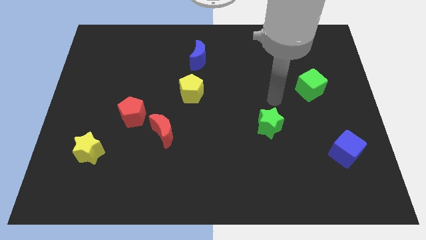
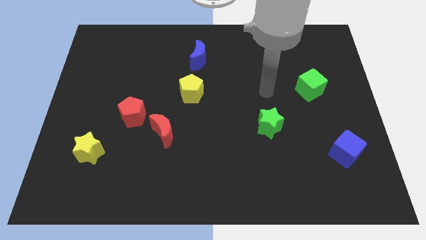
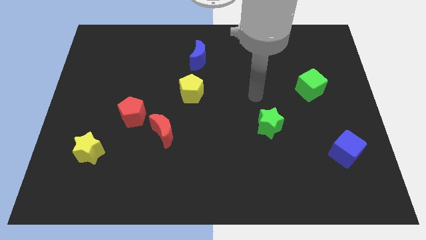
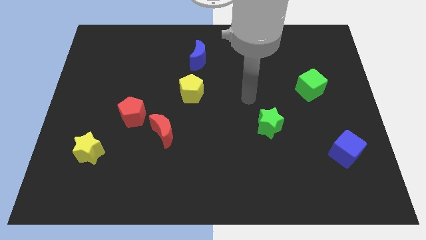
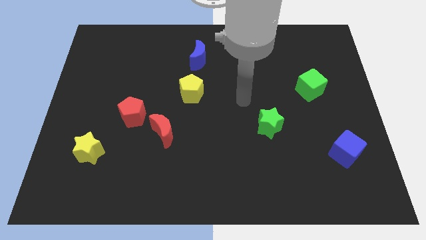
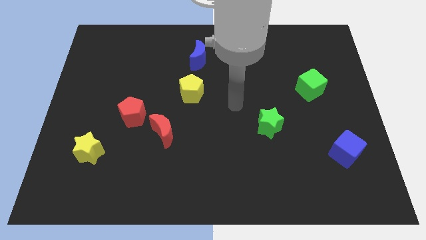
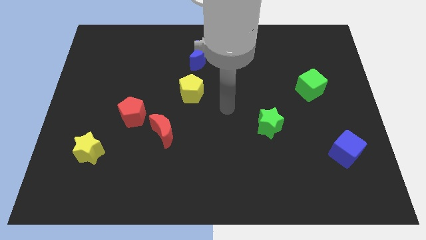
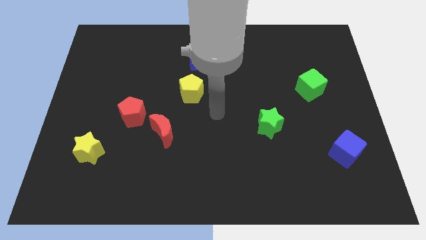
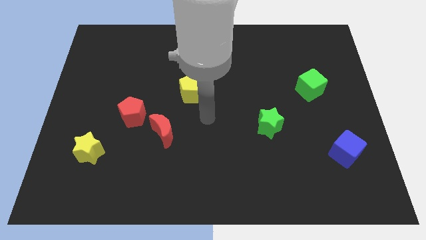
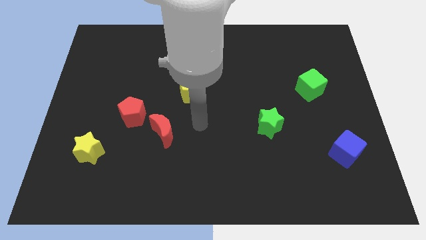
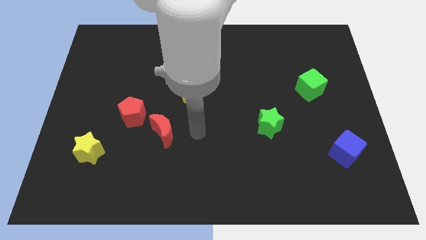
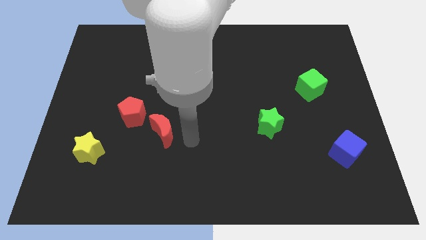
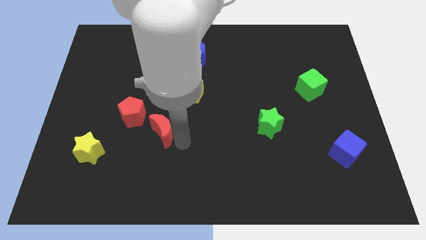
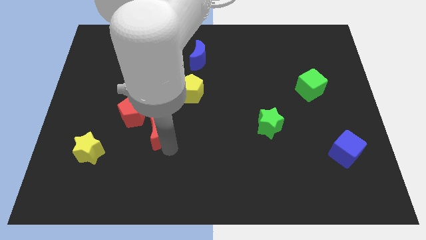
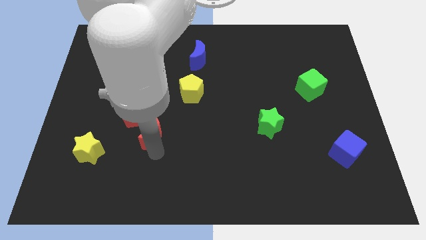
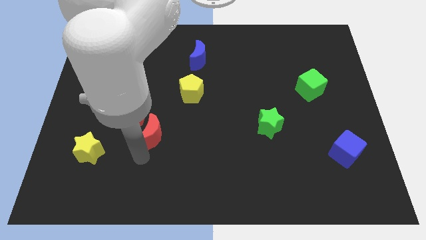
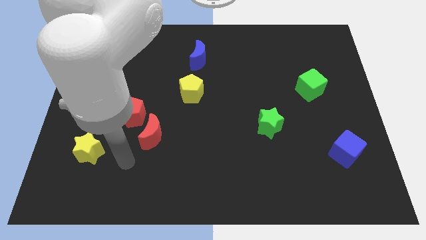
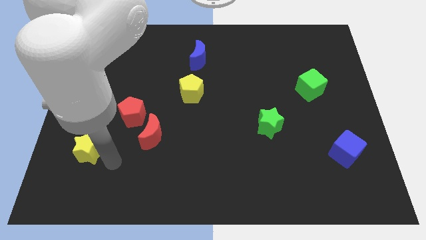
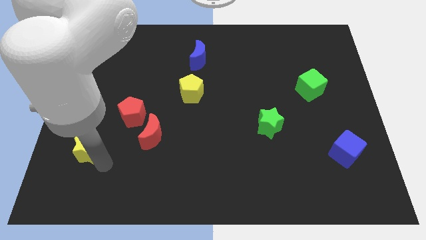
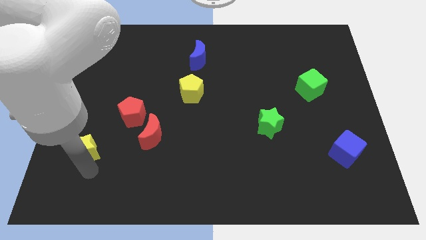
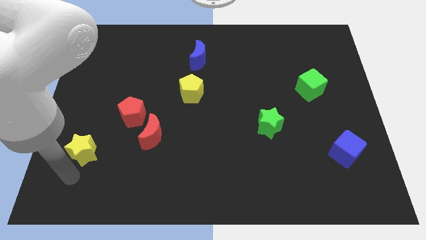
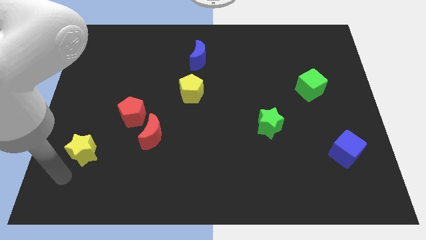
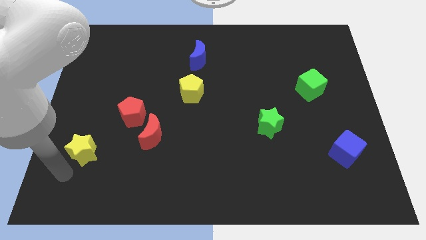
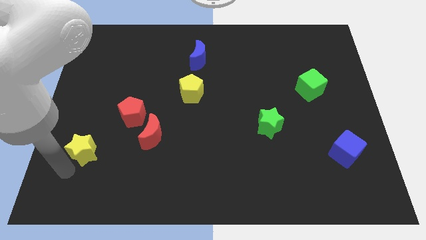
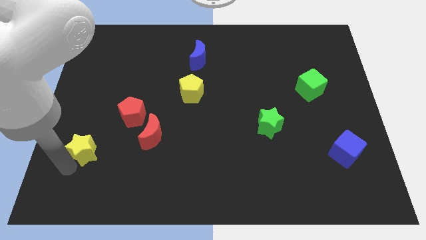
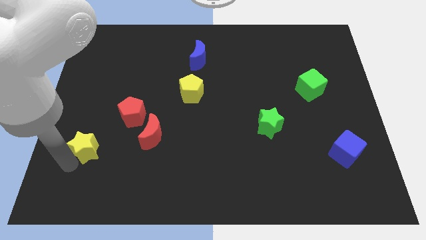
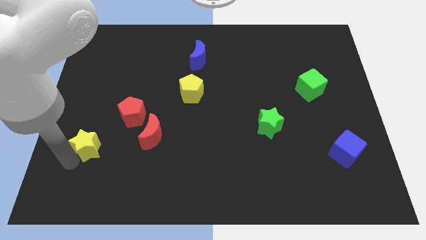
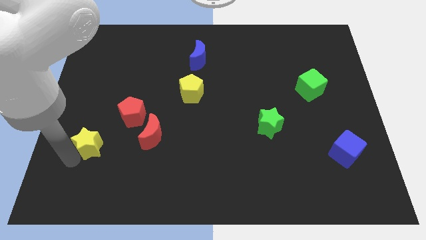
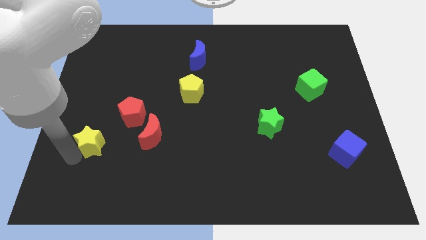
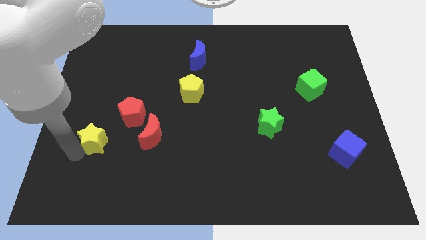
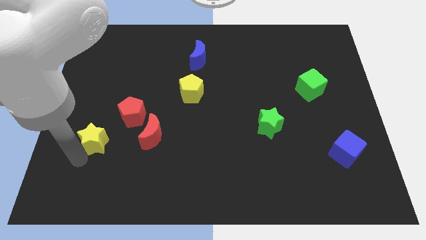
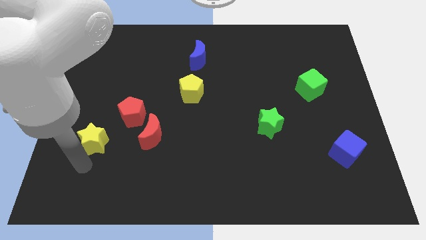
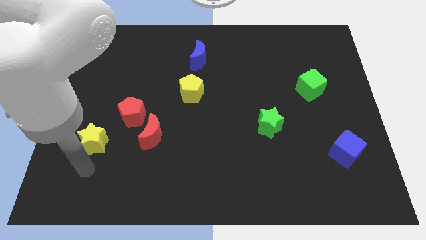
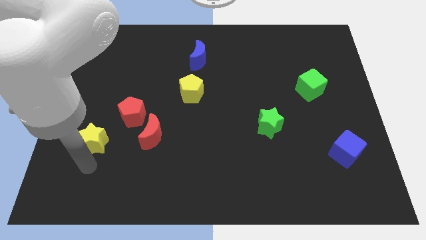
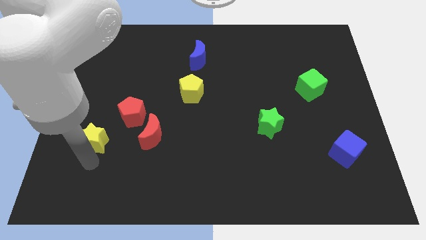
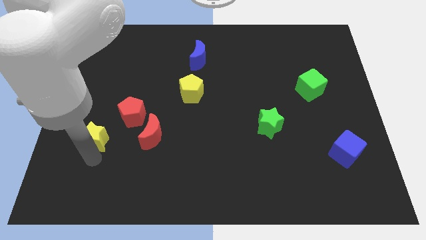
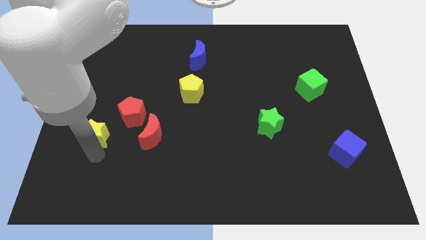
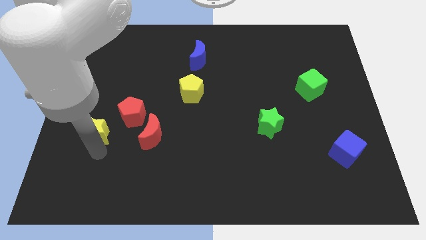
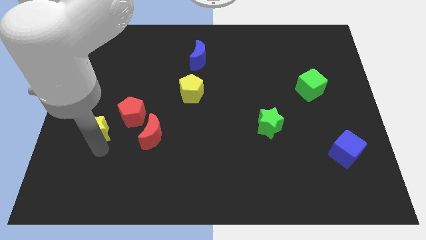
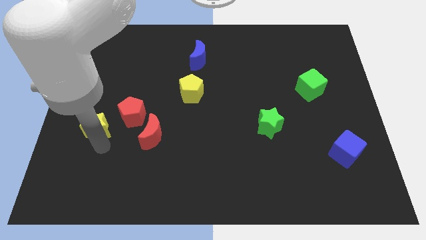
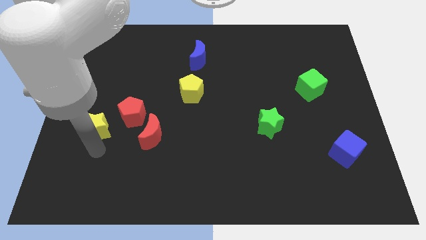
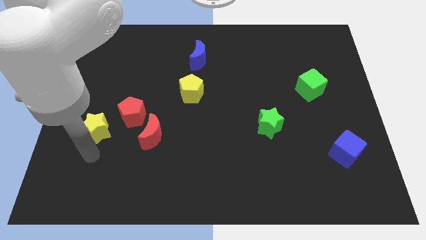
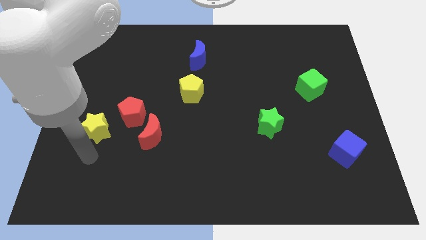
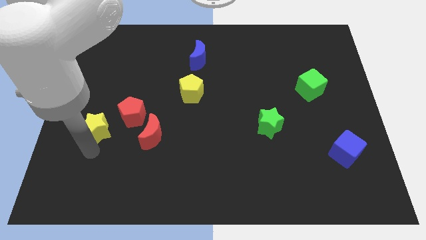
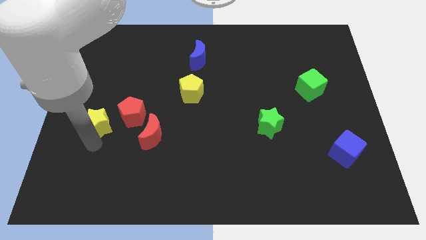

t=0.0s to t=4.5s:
move the yellow star upwards slightly

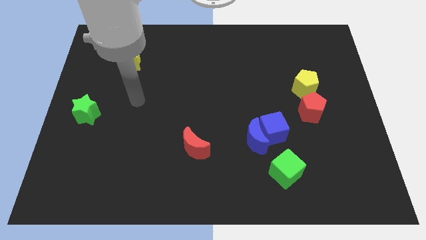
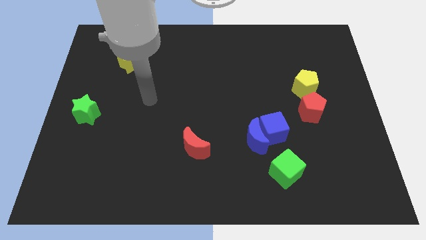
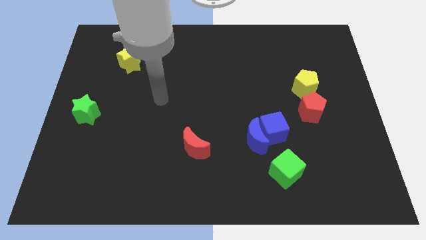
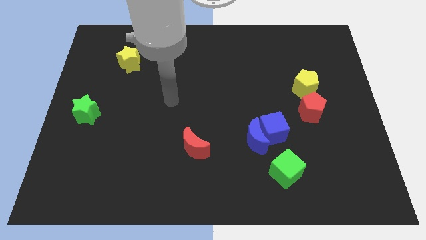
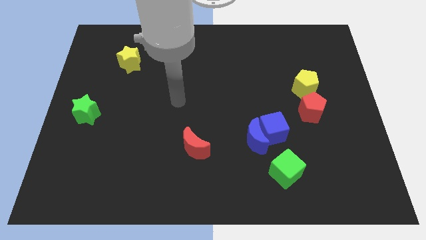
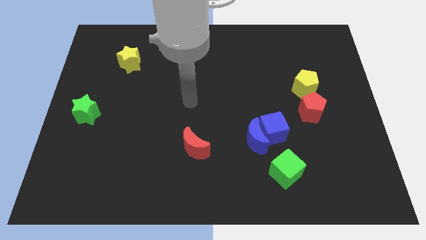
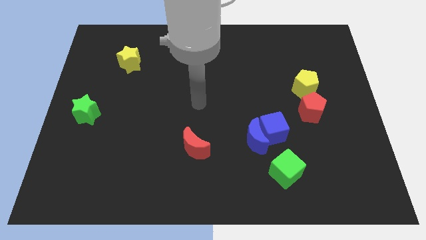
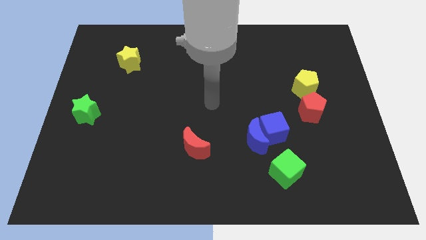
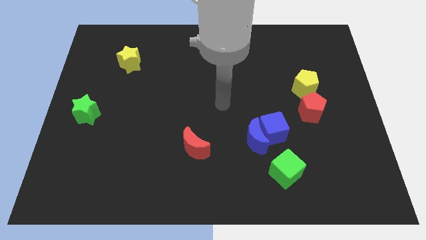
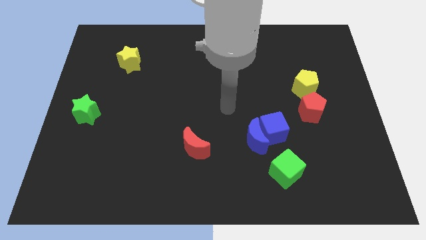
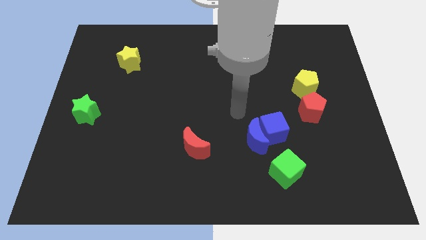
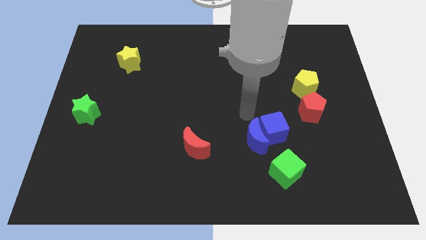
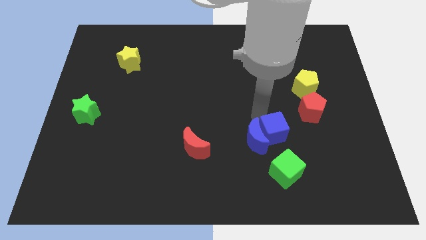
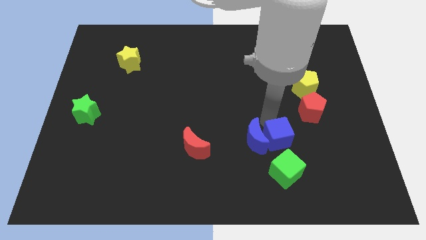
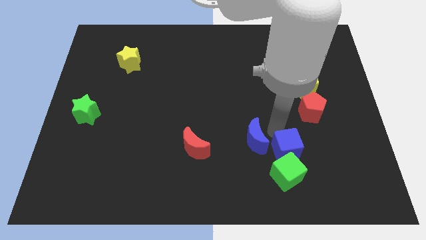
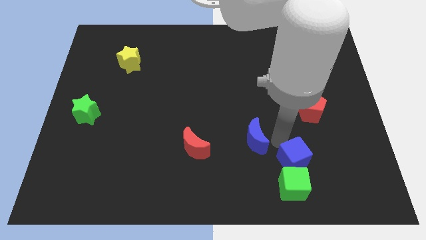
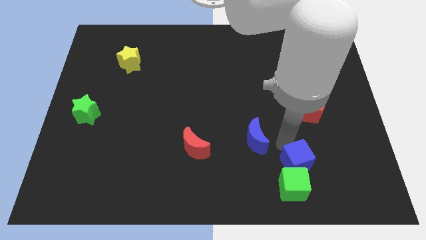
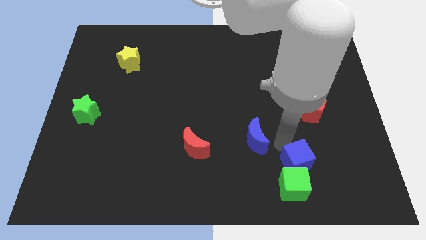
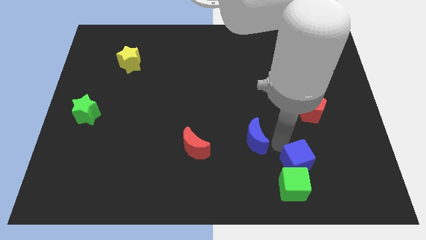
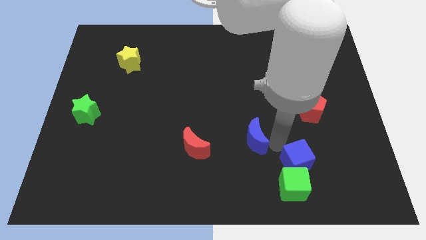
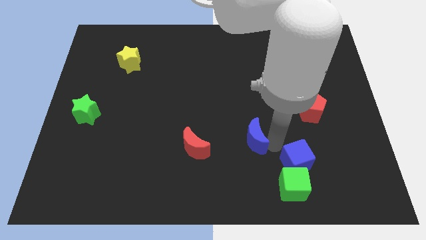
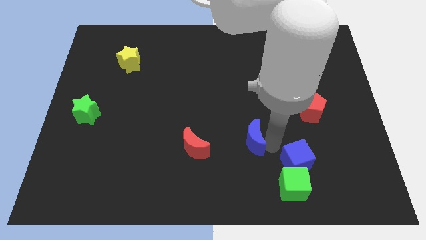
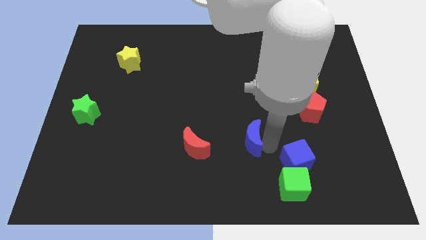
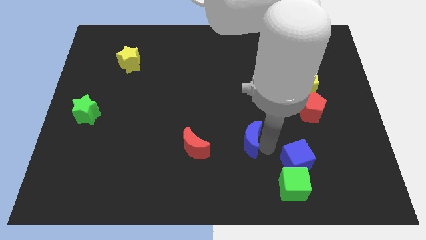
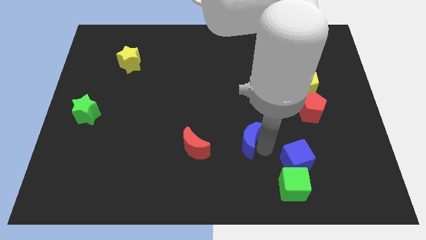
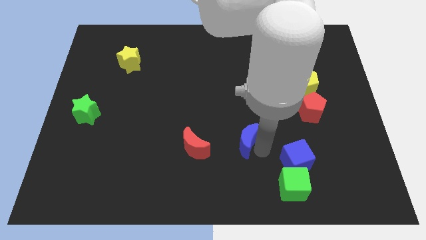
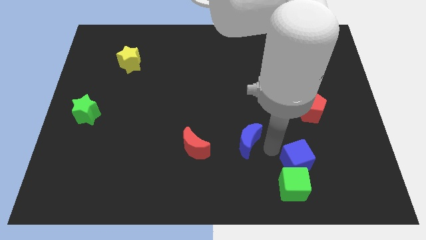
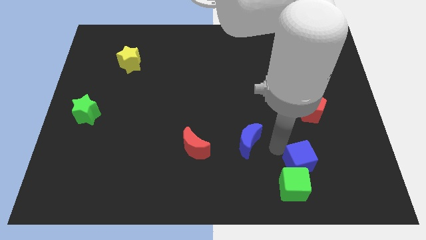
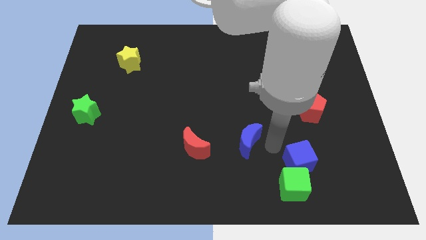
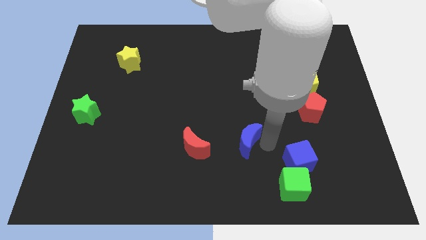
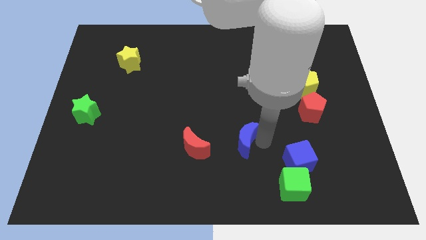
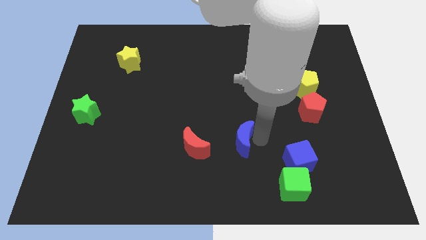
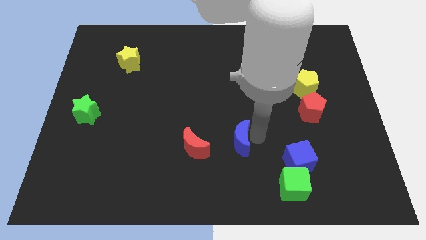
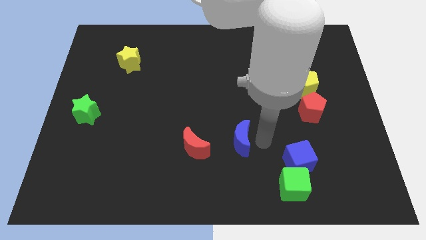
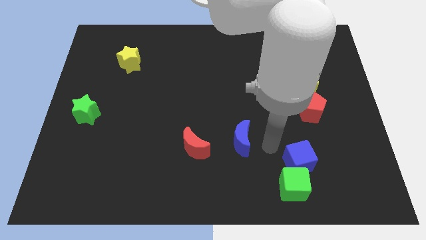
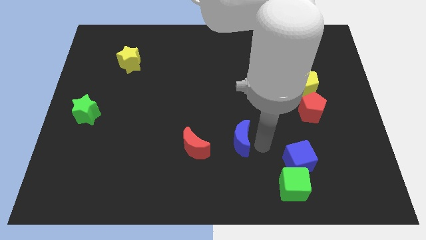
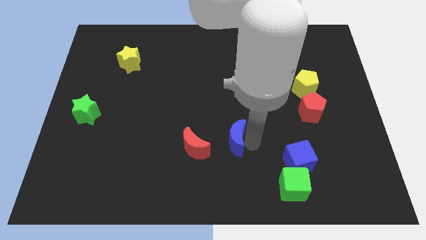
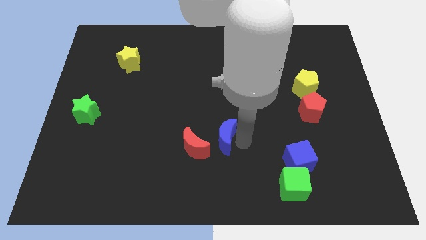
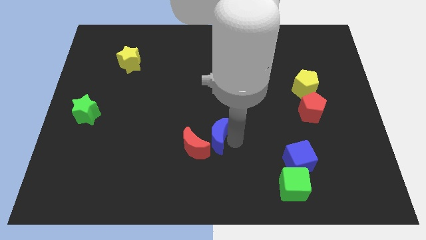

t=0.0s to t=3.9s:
slightly move the blue moon left
